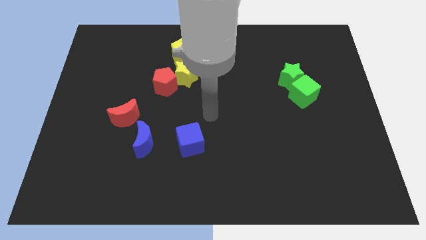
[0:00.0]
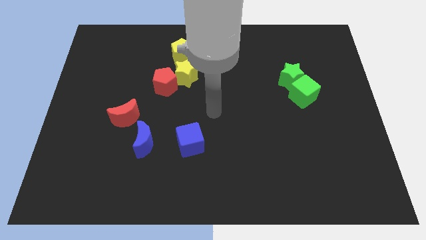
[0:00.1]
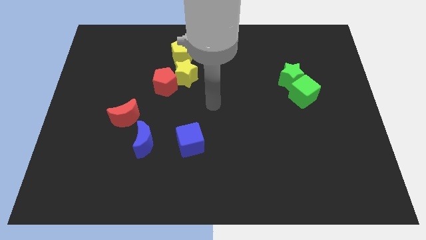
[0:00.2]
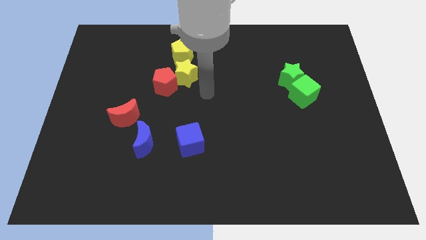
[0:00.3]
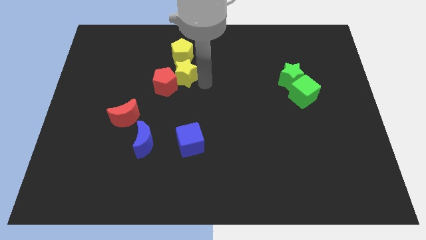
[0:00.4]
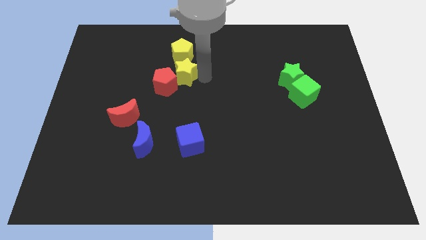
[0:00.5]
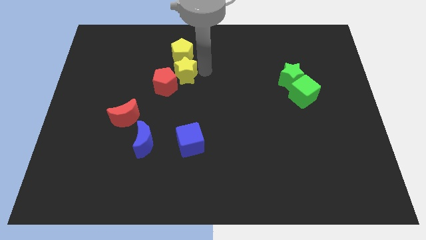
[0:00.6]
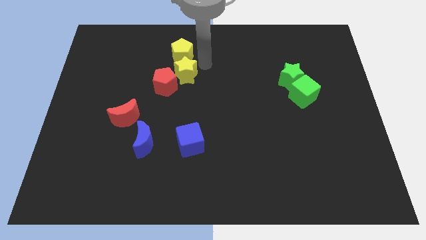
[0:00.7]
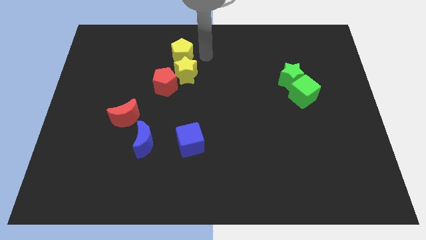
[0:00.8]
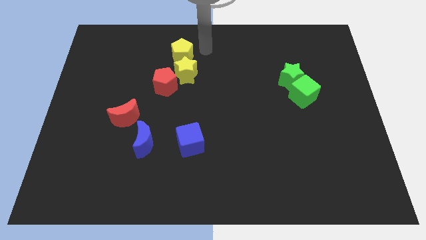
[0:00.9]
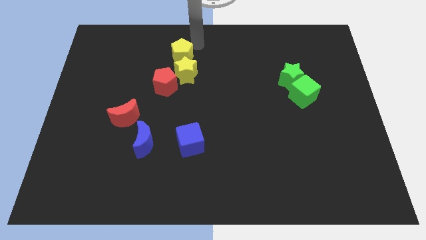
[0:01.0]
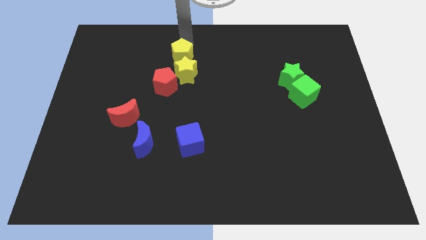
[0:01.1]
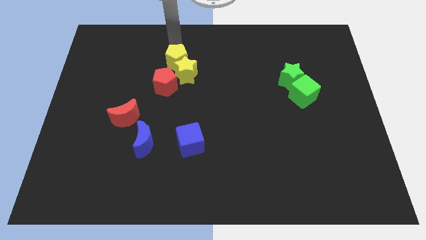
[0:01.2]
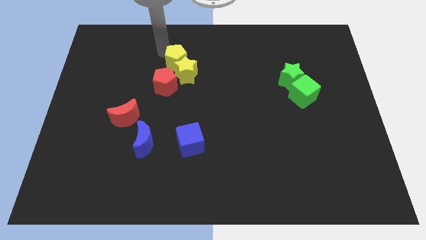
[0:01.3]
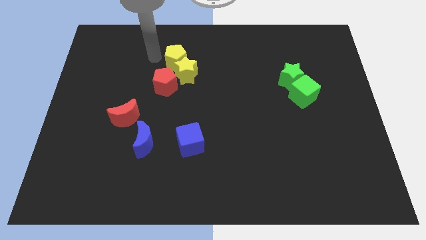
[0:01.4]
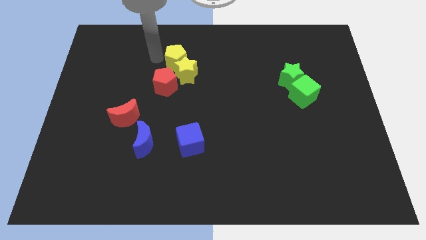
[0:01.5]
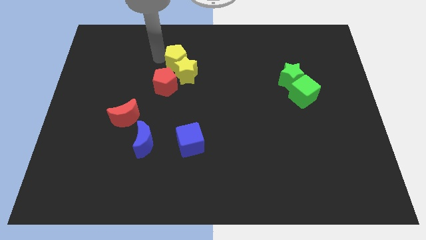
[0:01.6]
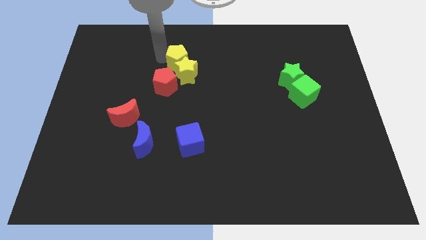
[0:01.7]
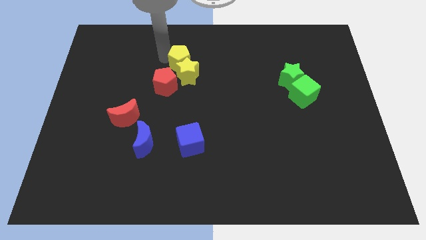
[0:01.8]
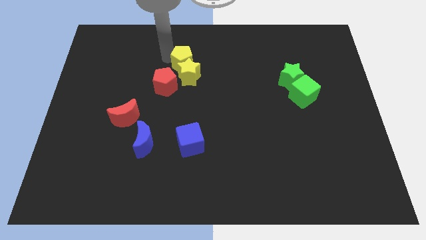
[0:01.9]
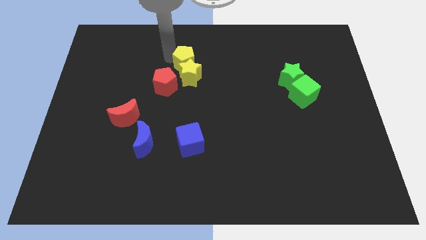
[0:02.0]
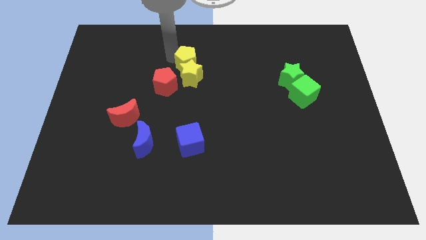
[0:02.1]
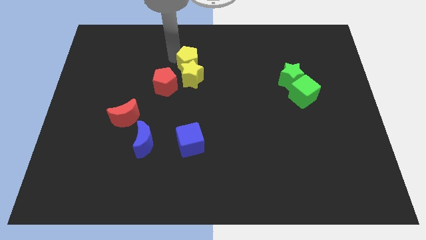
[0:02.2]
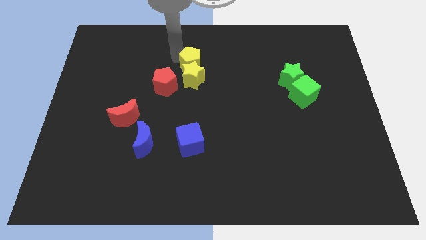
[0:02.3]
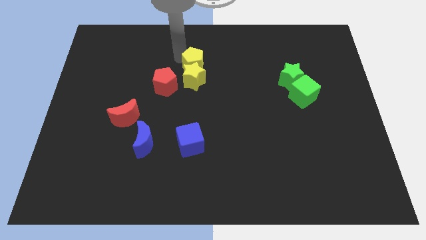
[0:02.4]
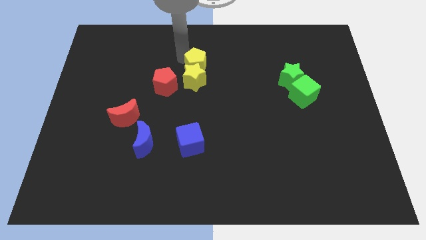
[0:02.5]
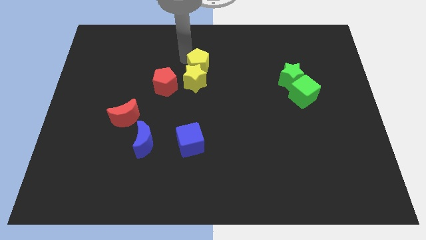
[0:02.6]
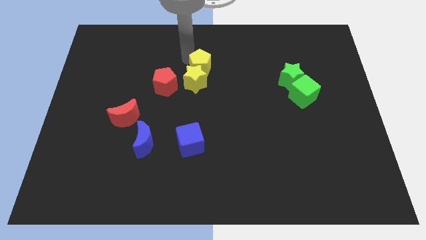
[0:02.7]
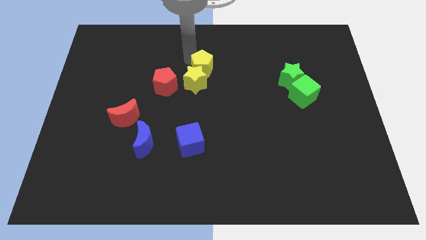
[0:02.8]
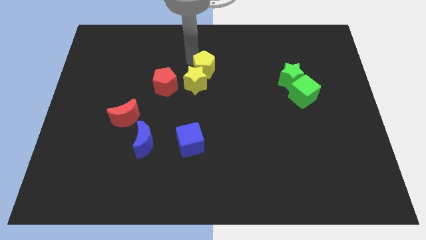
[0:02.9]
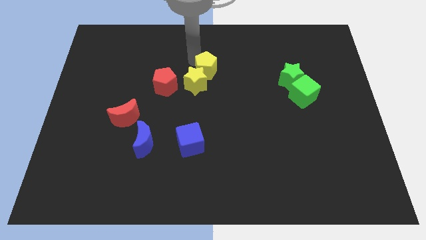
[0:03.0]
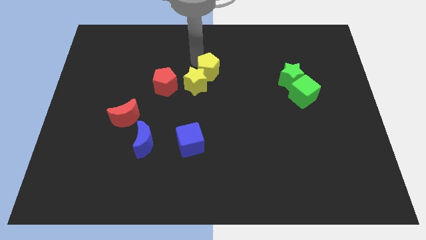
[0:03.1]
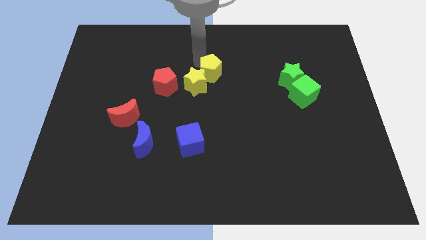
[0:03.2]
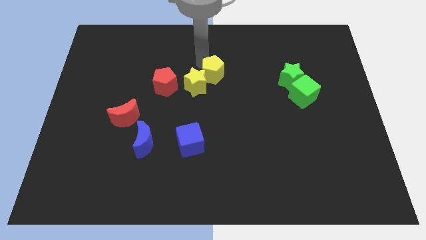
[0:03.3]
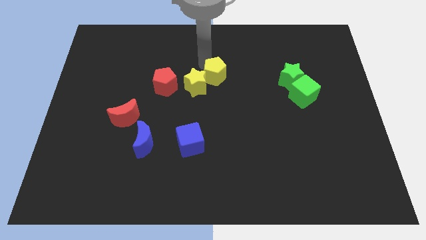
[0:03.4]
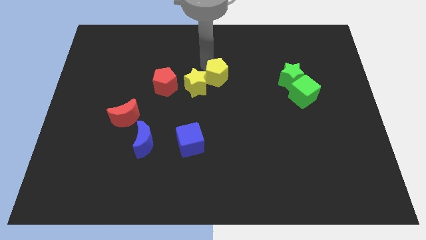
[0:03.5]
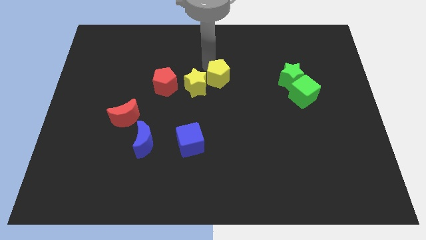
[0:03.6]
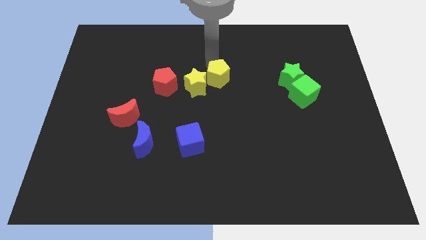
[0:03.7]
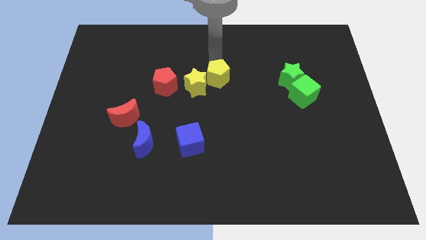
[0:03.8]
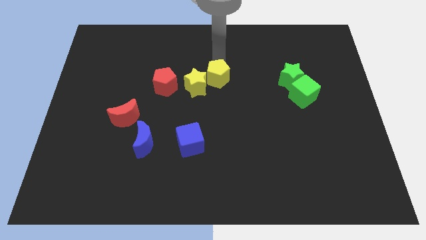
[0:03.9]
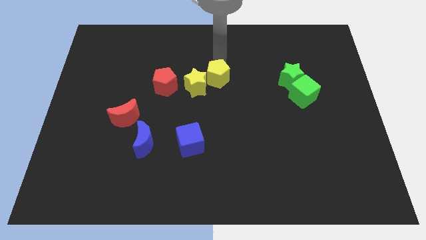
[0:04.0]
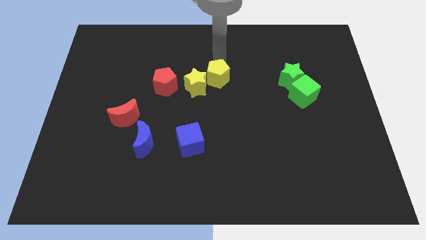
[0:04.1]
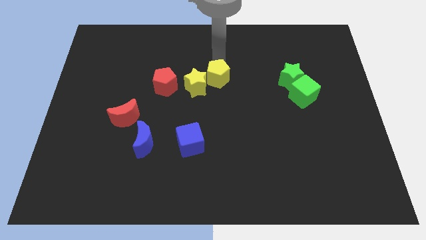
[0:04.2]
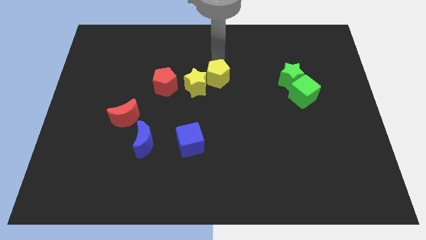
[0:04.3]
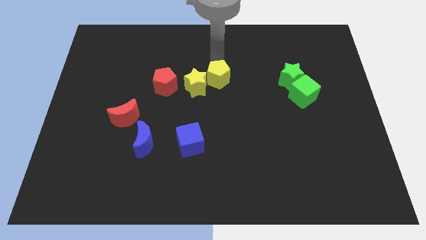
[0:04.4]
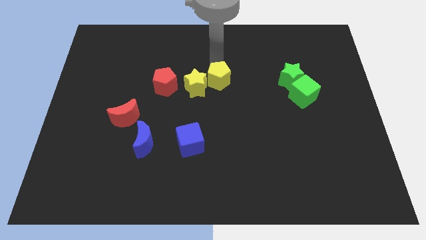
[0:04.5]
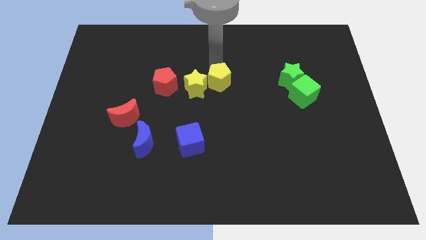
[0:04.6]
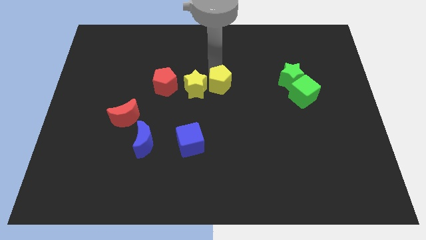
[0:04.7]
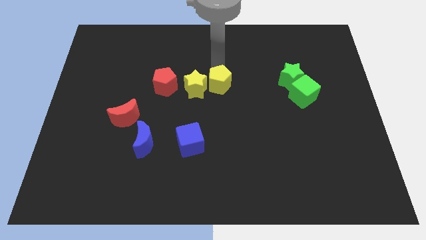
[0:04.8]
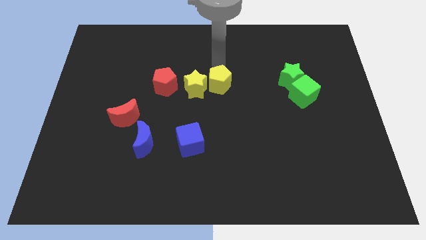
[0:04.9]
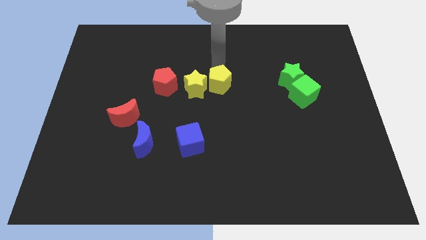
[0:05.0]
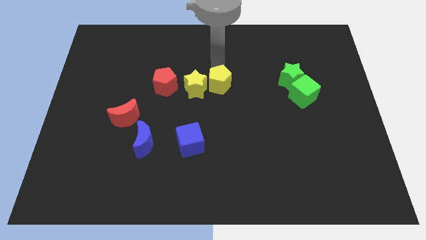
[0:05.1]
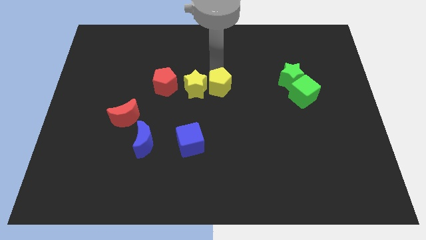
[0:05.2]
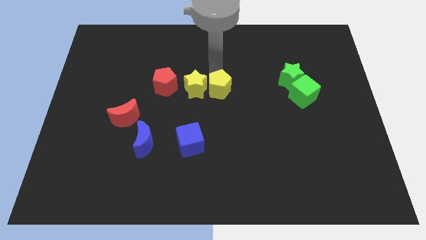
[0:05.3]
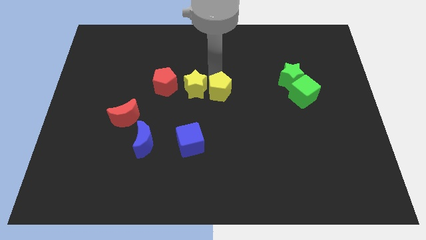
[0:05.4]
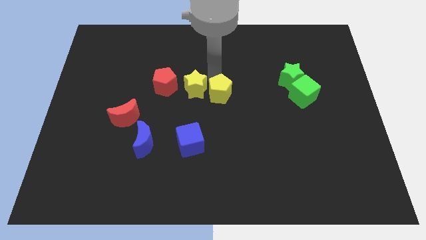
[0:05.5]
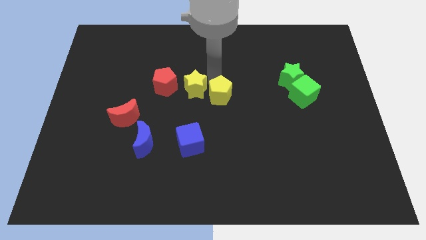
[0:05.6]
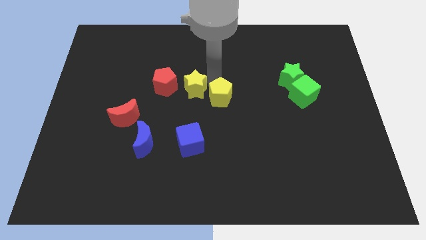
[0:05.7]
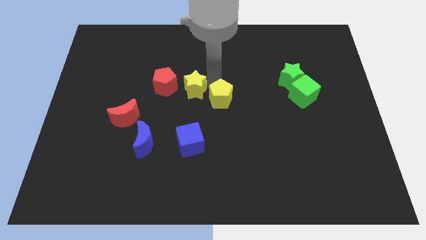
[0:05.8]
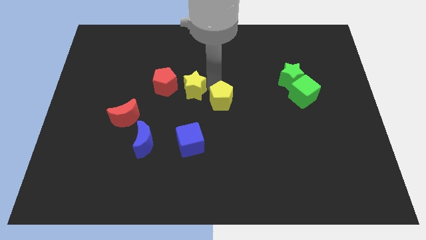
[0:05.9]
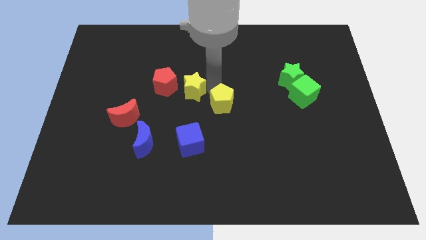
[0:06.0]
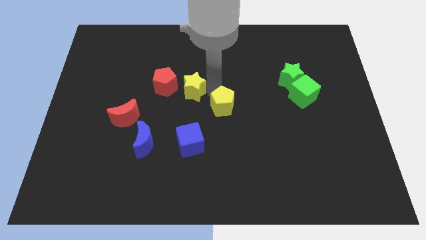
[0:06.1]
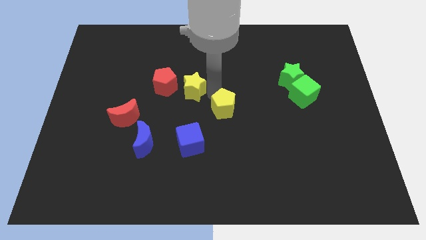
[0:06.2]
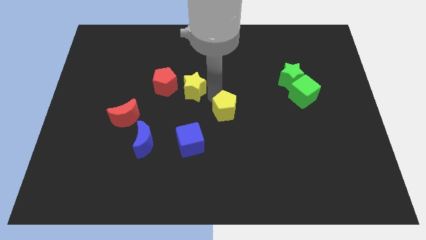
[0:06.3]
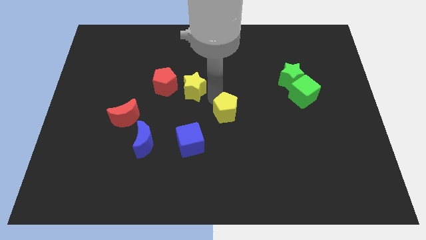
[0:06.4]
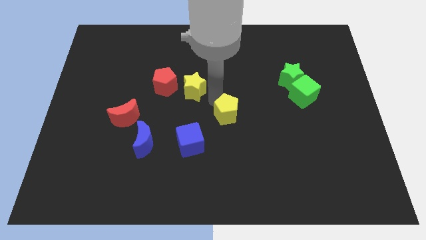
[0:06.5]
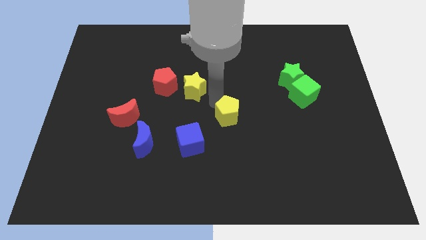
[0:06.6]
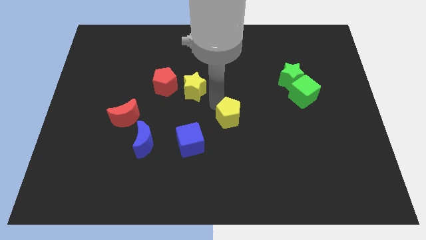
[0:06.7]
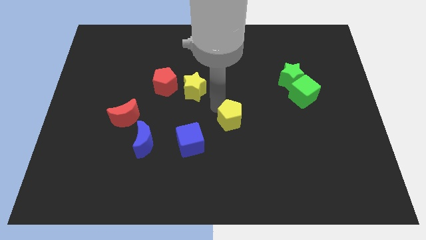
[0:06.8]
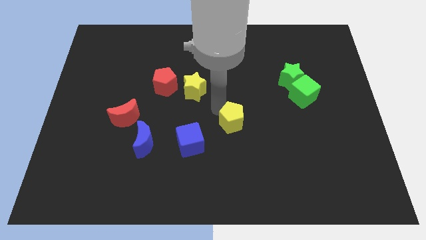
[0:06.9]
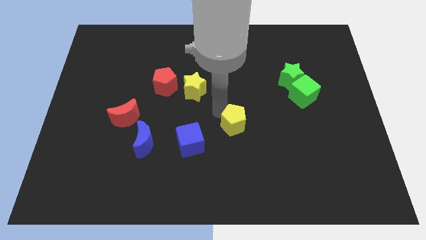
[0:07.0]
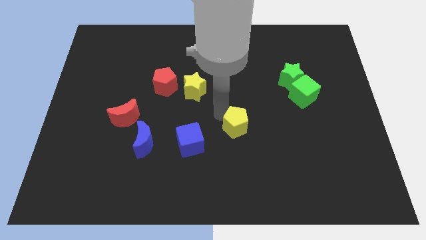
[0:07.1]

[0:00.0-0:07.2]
move the yellow pentagon to the right of the blue cube
